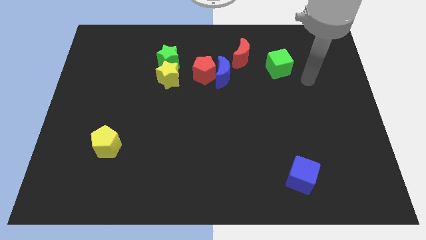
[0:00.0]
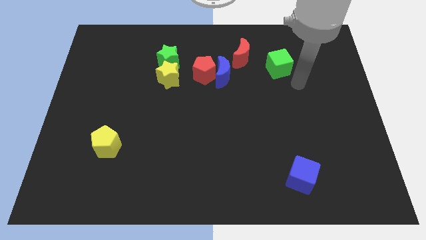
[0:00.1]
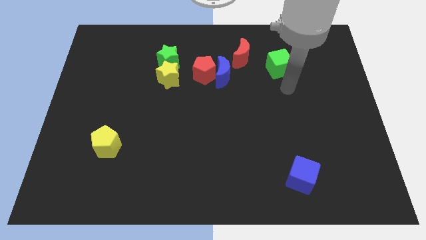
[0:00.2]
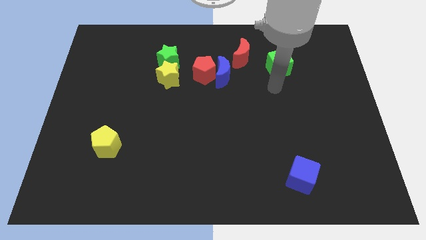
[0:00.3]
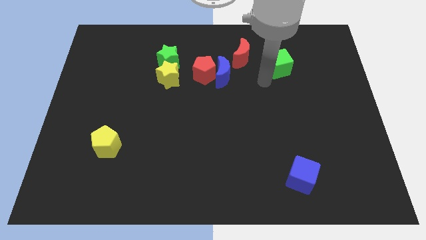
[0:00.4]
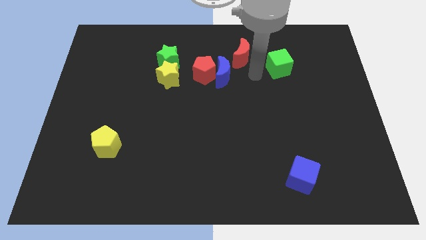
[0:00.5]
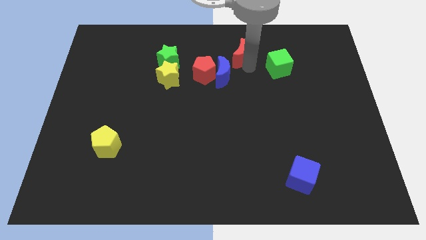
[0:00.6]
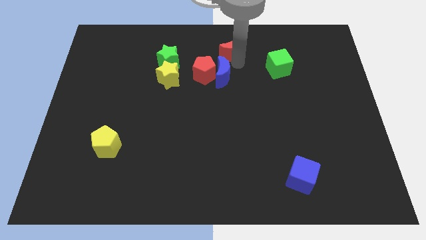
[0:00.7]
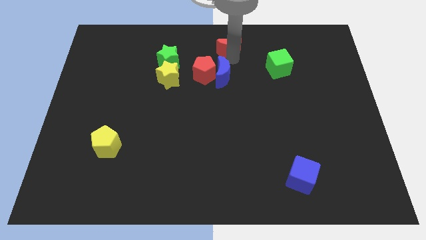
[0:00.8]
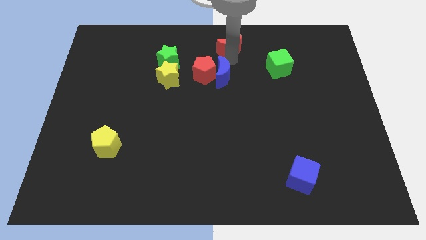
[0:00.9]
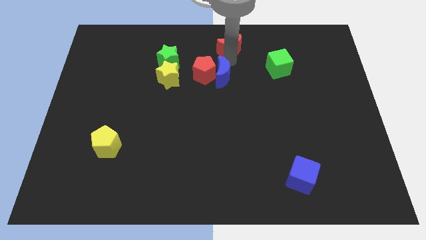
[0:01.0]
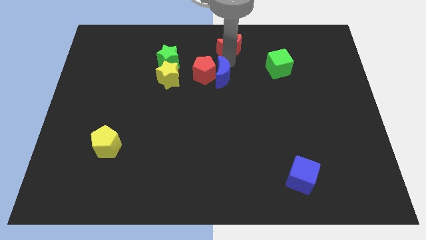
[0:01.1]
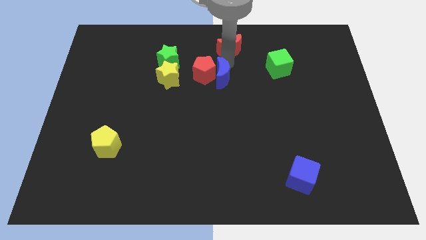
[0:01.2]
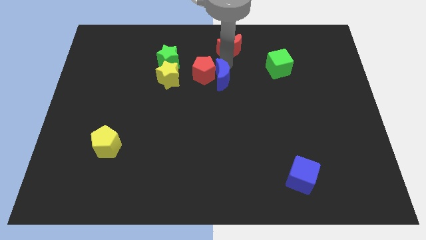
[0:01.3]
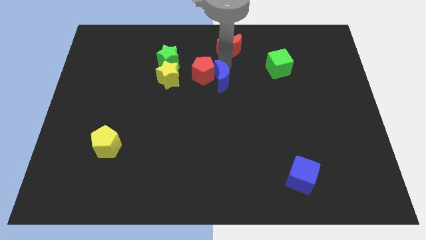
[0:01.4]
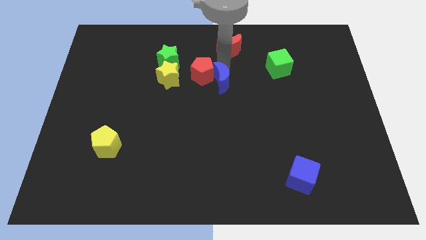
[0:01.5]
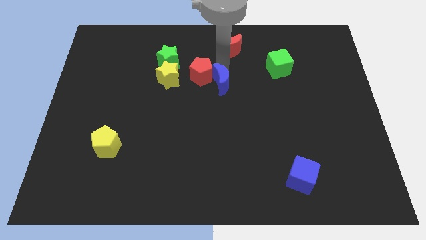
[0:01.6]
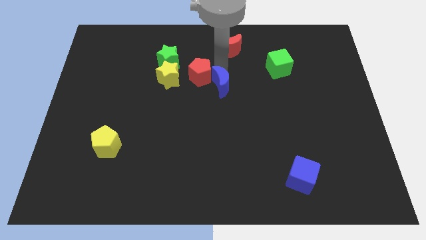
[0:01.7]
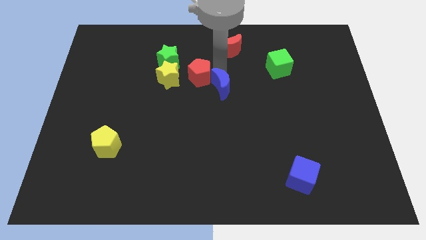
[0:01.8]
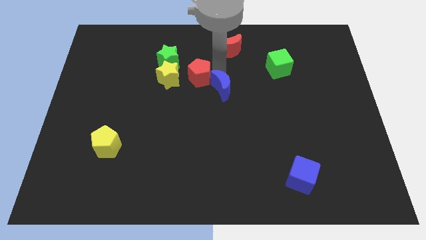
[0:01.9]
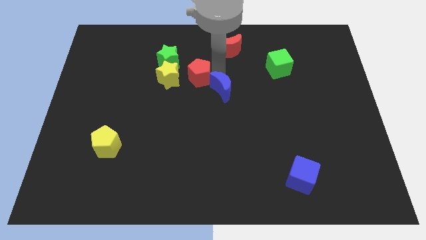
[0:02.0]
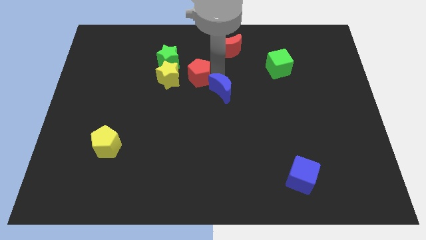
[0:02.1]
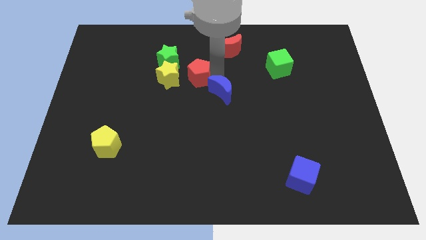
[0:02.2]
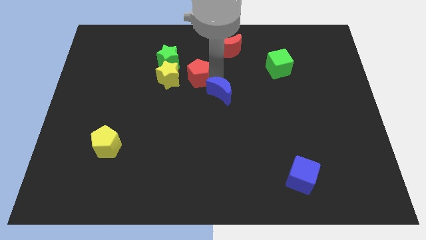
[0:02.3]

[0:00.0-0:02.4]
separate the blue moon from the red pentagon and red moon

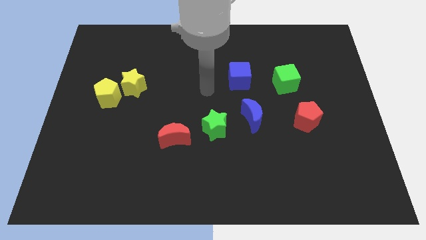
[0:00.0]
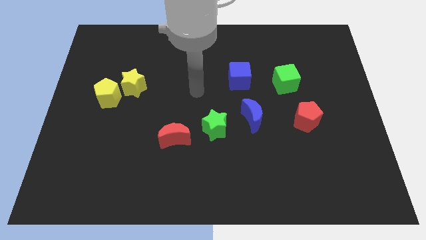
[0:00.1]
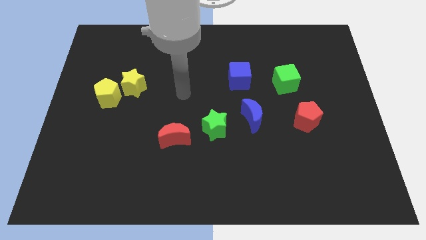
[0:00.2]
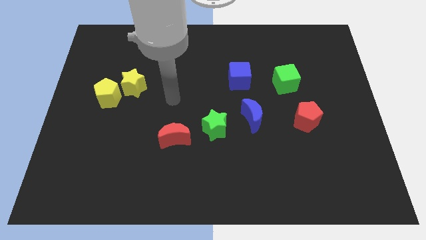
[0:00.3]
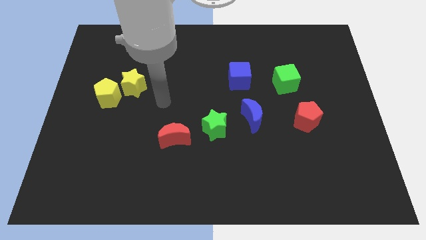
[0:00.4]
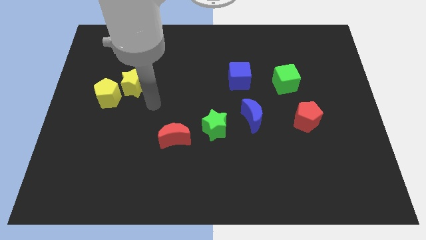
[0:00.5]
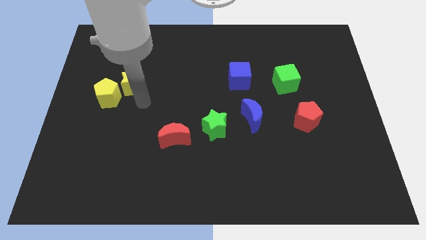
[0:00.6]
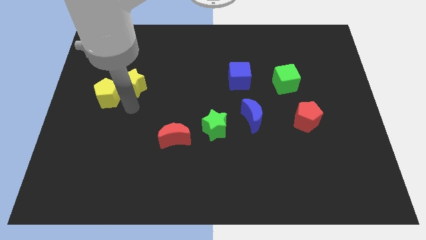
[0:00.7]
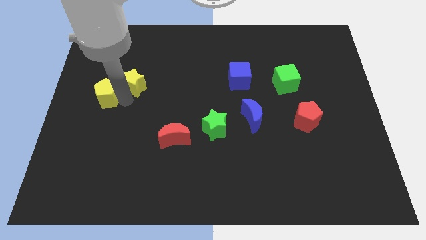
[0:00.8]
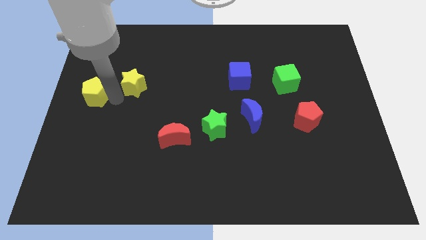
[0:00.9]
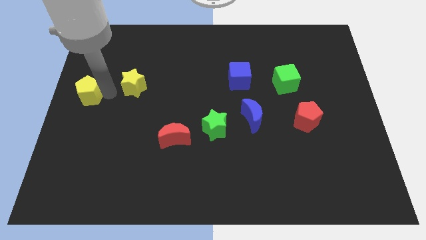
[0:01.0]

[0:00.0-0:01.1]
pull the yellow star apart from the yellow pentagon

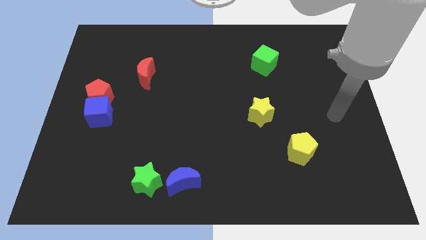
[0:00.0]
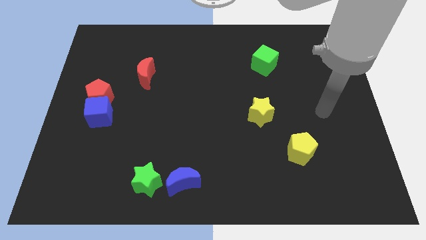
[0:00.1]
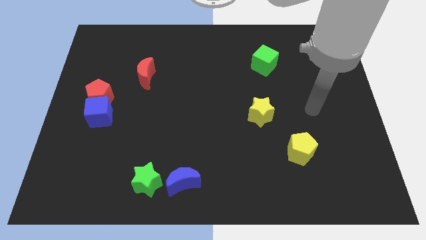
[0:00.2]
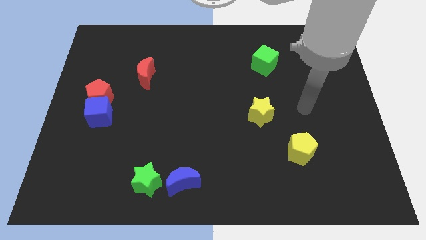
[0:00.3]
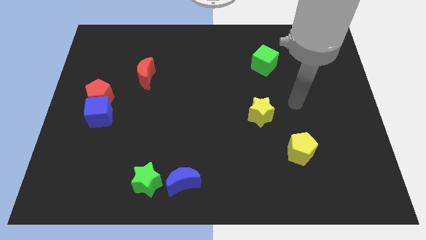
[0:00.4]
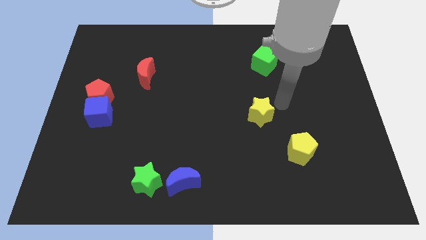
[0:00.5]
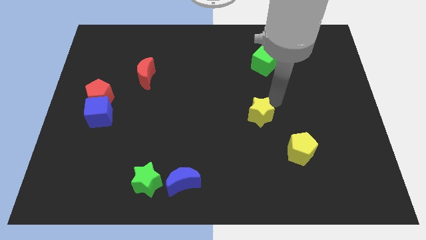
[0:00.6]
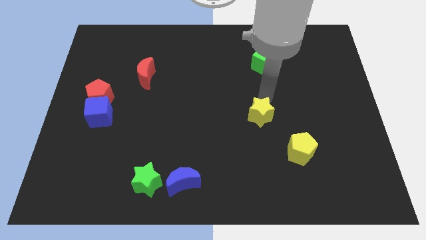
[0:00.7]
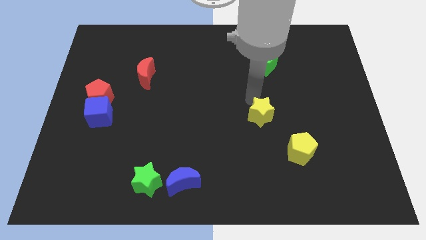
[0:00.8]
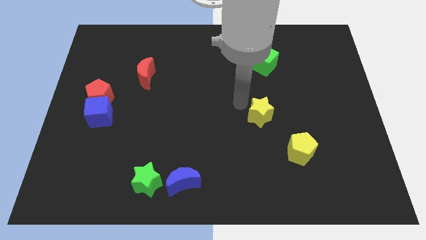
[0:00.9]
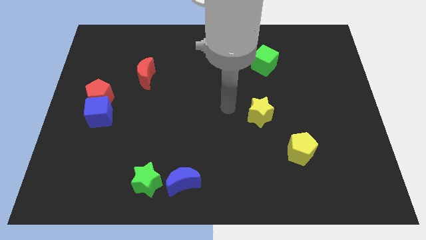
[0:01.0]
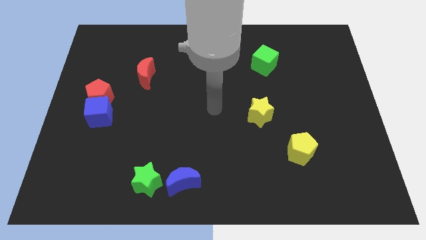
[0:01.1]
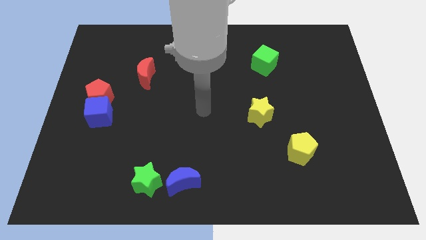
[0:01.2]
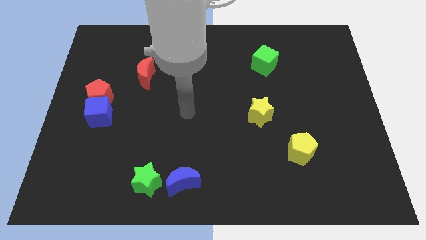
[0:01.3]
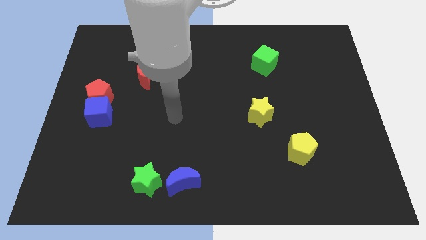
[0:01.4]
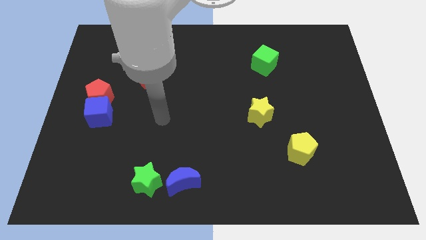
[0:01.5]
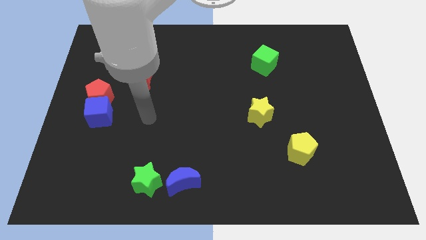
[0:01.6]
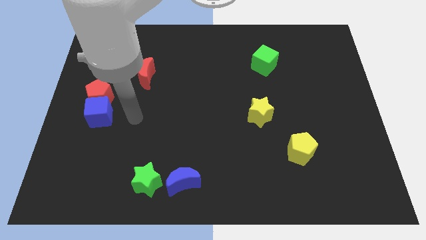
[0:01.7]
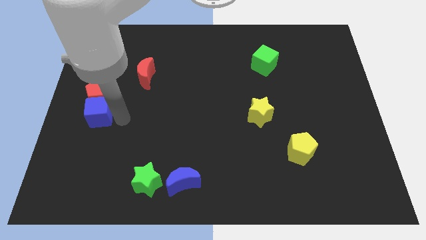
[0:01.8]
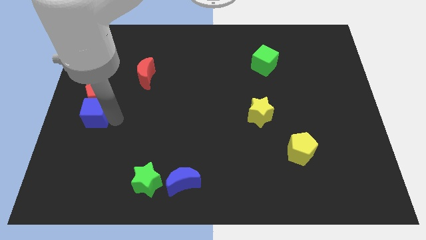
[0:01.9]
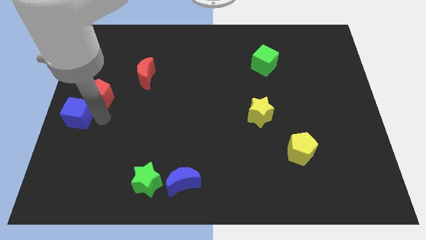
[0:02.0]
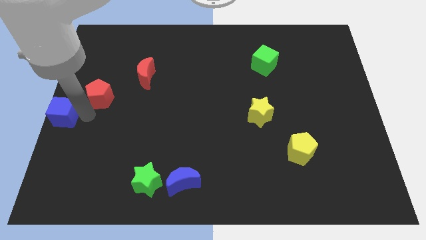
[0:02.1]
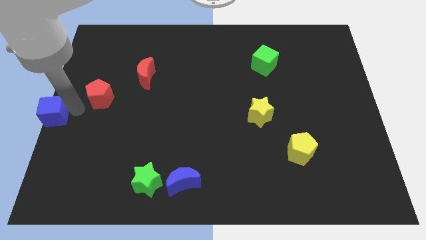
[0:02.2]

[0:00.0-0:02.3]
move the red pentagon away from the blue cube

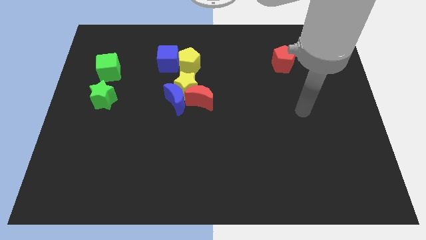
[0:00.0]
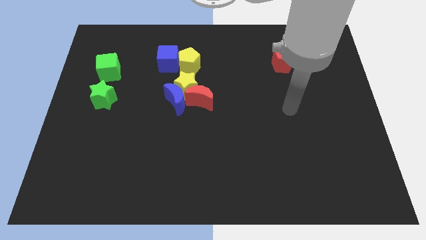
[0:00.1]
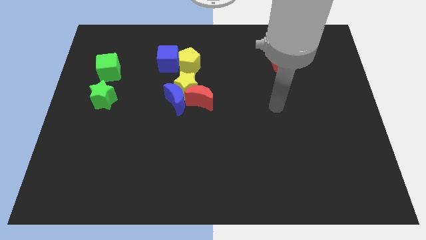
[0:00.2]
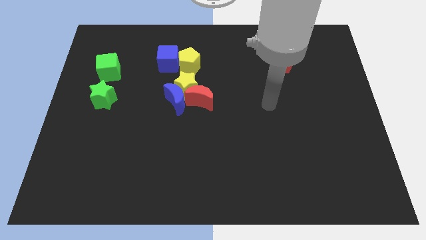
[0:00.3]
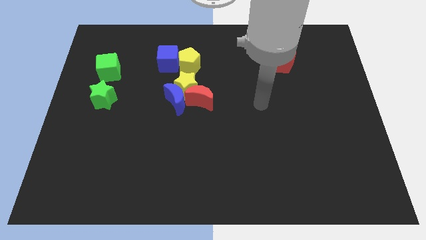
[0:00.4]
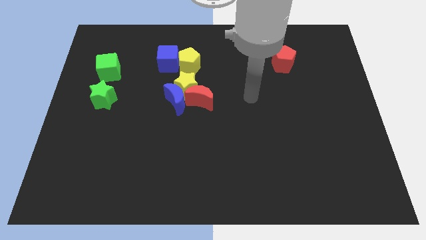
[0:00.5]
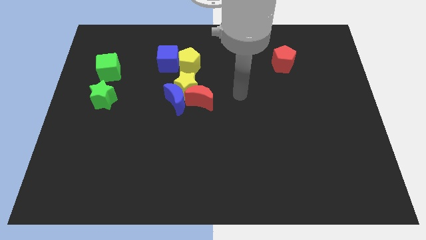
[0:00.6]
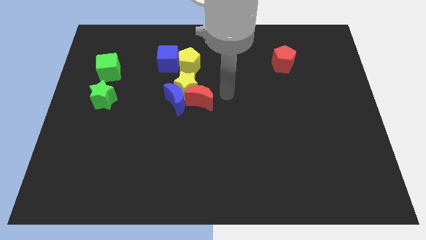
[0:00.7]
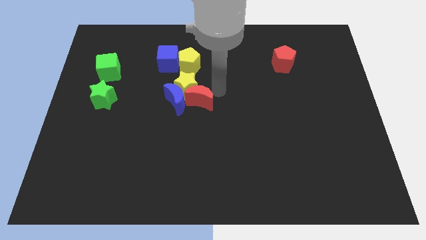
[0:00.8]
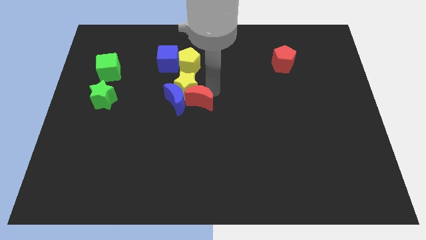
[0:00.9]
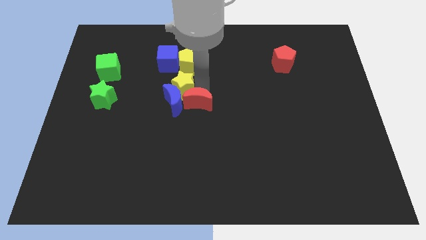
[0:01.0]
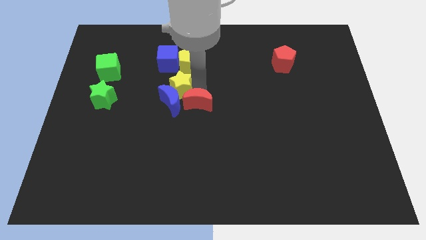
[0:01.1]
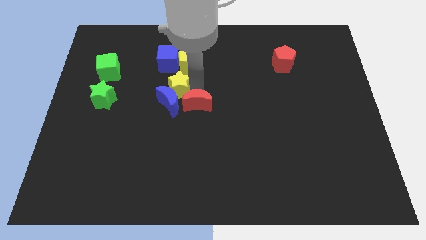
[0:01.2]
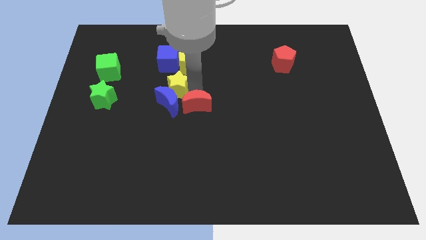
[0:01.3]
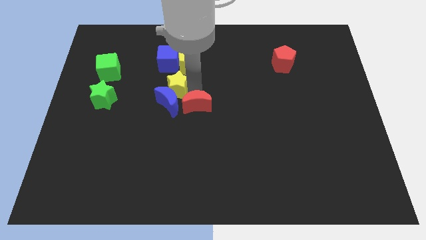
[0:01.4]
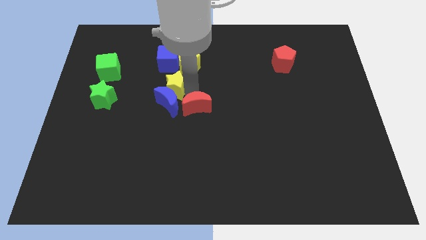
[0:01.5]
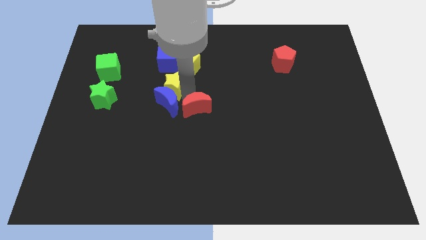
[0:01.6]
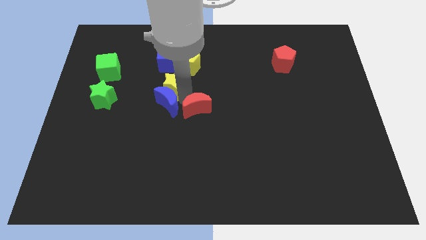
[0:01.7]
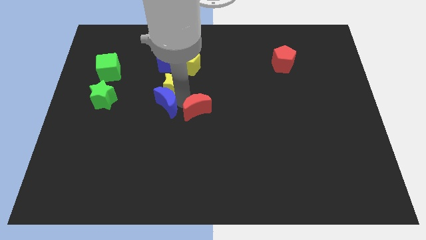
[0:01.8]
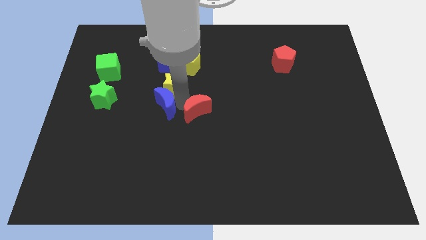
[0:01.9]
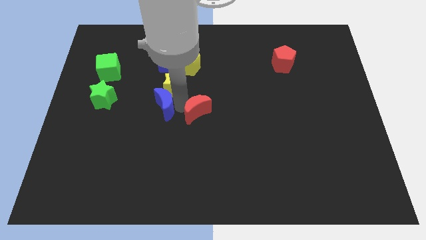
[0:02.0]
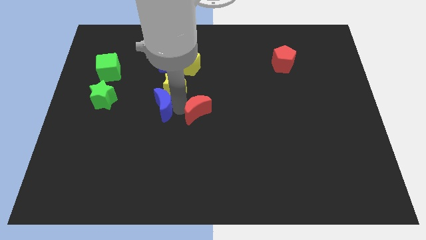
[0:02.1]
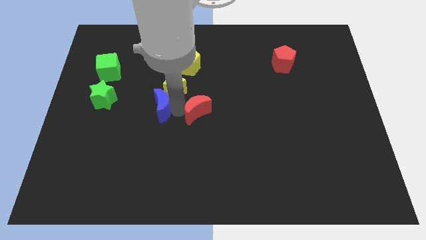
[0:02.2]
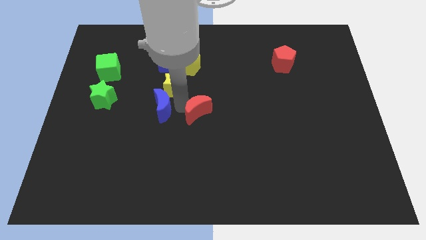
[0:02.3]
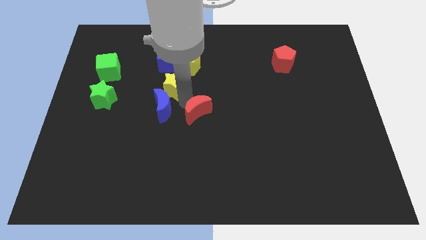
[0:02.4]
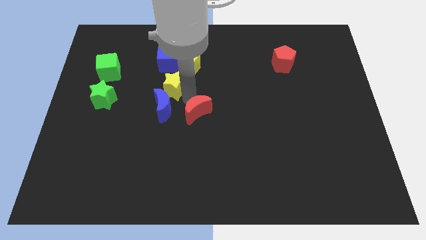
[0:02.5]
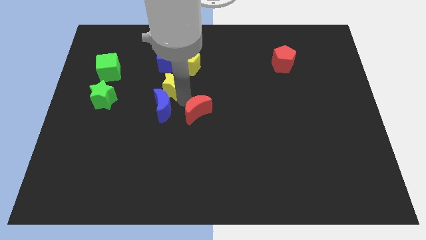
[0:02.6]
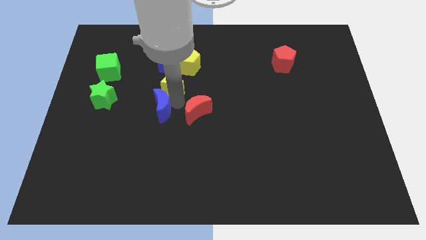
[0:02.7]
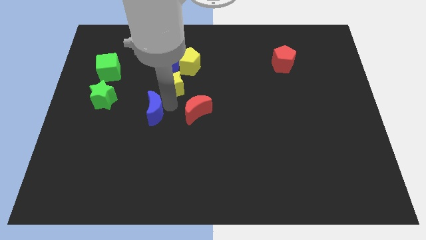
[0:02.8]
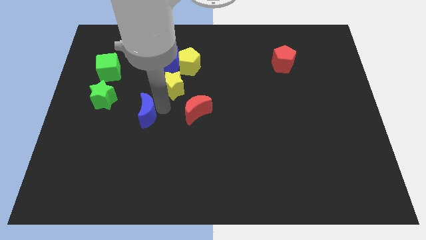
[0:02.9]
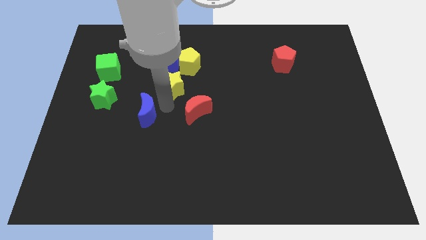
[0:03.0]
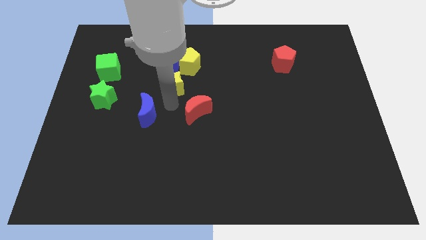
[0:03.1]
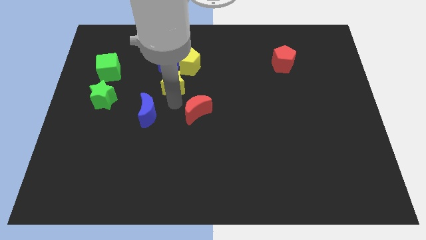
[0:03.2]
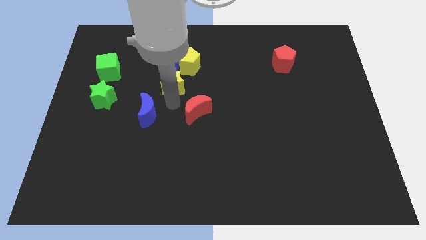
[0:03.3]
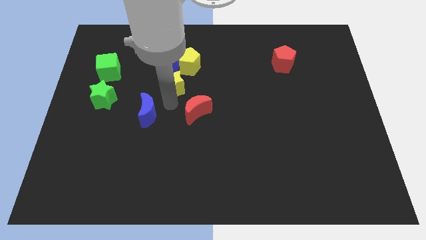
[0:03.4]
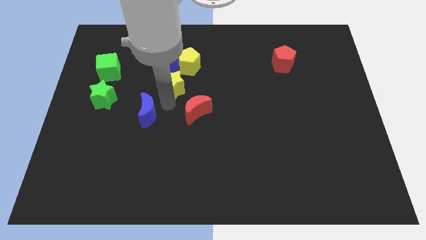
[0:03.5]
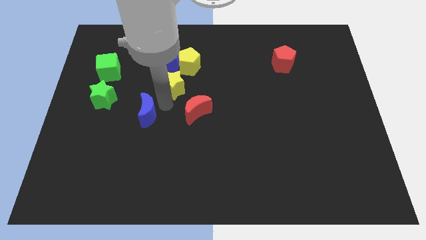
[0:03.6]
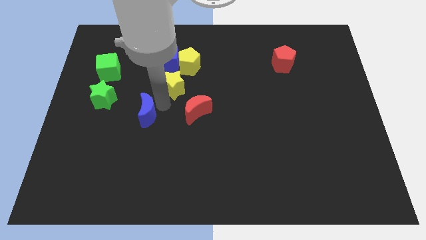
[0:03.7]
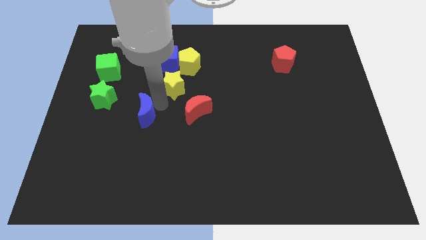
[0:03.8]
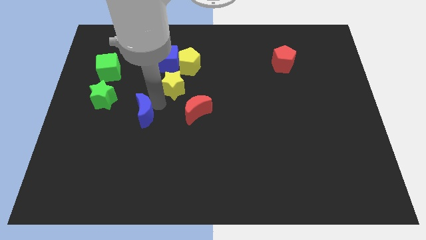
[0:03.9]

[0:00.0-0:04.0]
separate the blue moon from the yellow star and red moon
